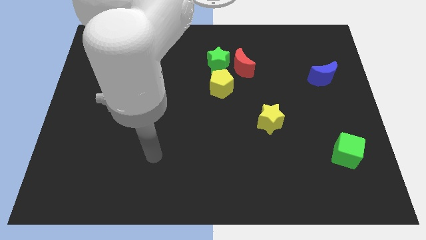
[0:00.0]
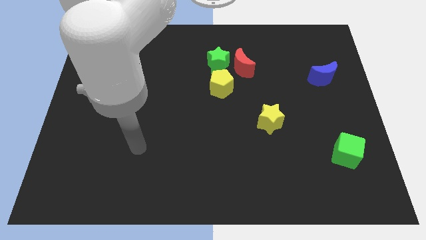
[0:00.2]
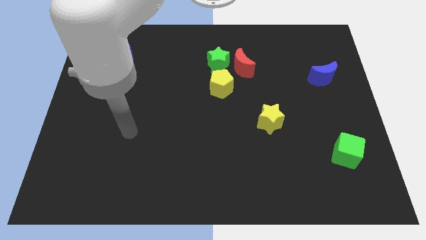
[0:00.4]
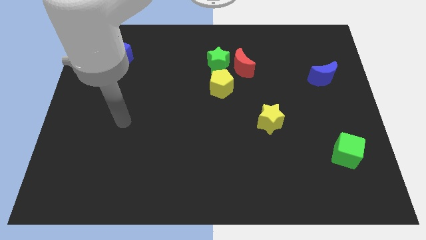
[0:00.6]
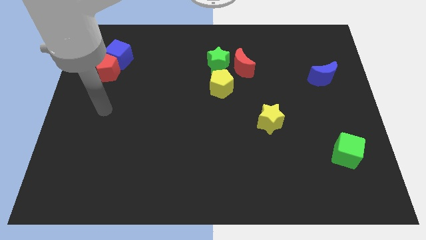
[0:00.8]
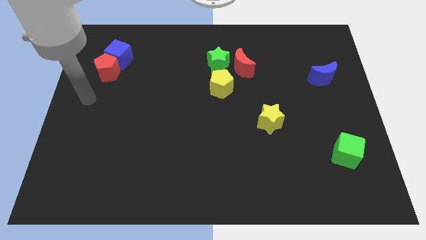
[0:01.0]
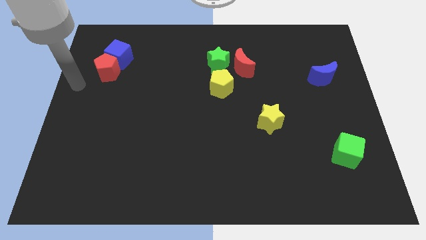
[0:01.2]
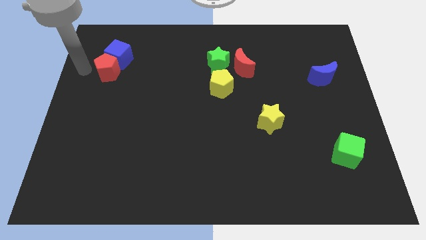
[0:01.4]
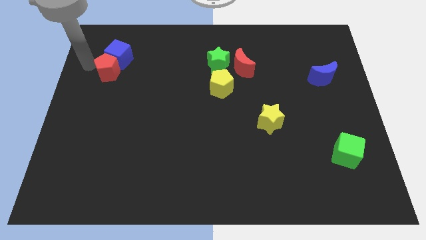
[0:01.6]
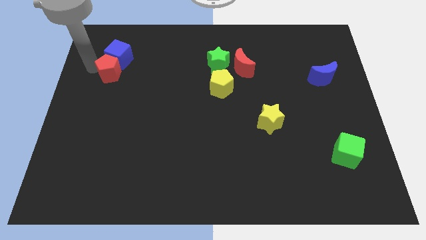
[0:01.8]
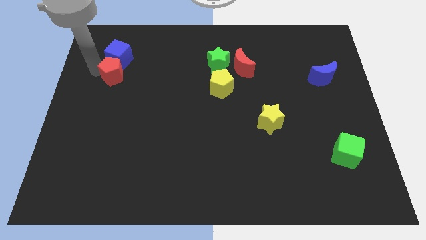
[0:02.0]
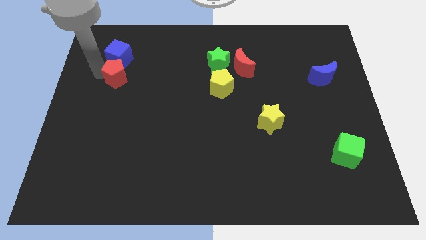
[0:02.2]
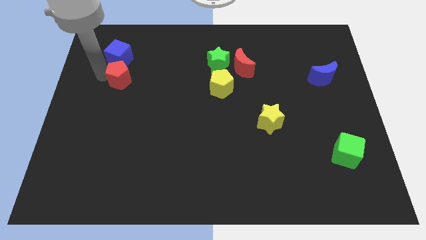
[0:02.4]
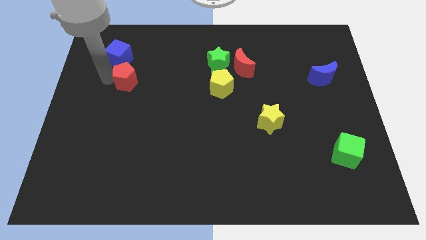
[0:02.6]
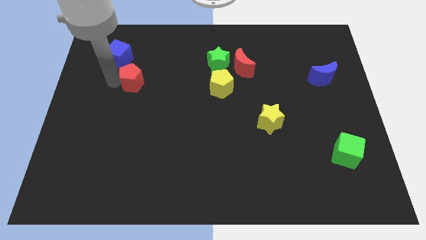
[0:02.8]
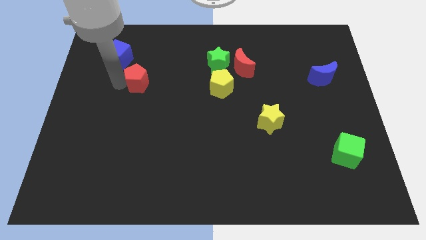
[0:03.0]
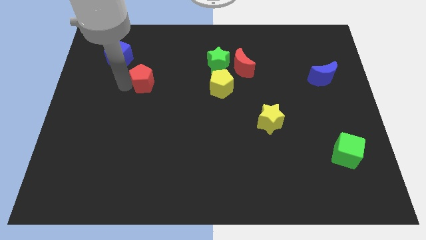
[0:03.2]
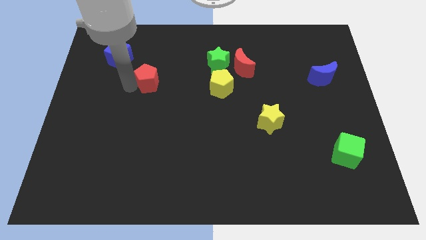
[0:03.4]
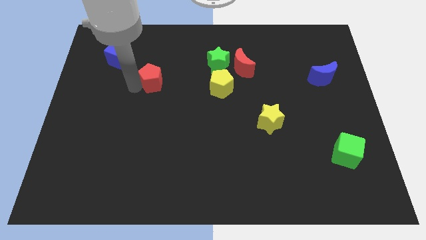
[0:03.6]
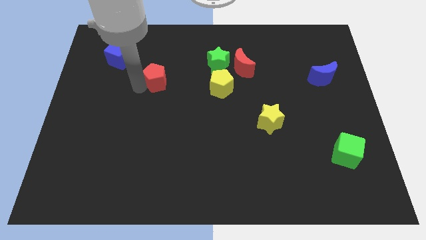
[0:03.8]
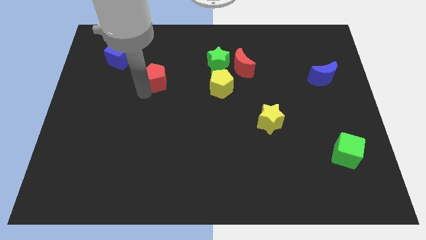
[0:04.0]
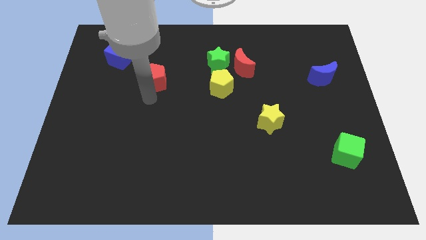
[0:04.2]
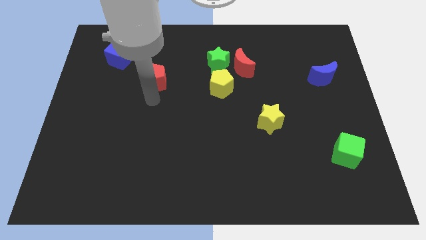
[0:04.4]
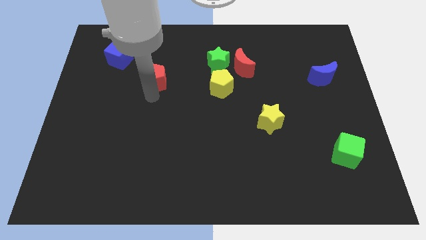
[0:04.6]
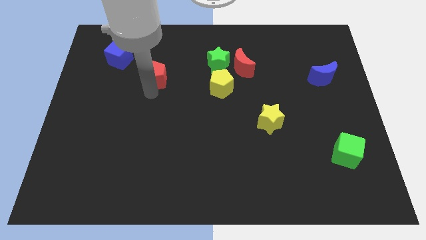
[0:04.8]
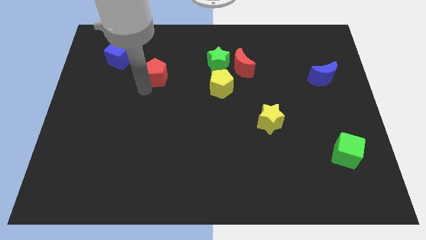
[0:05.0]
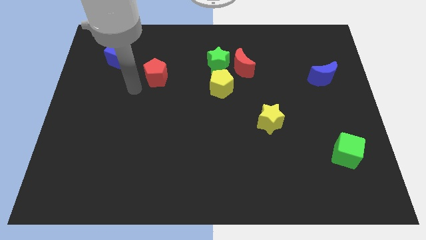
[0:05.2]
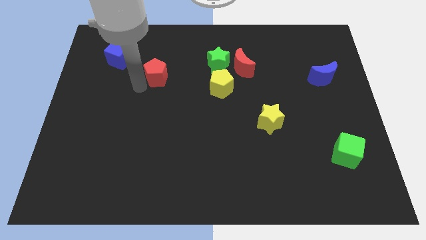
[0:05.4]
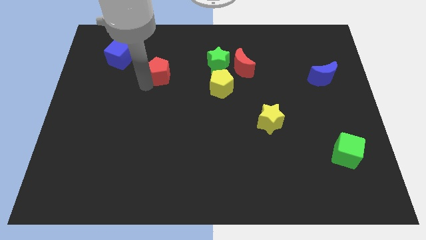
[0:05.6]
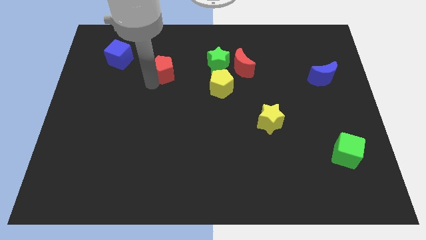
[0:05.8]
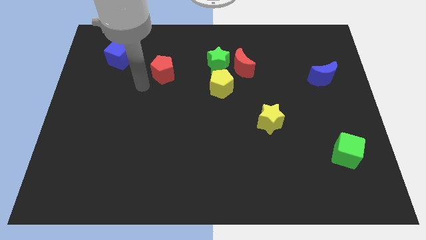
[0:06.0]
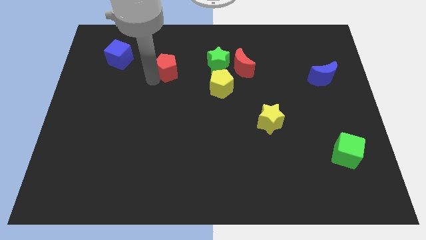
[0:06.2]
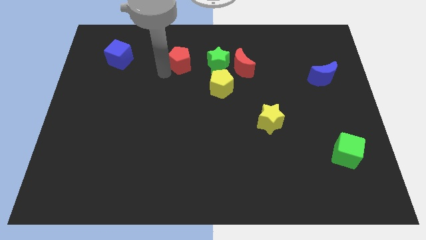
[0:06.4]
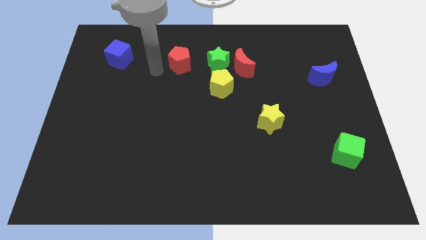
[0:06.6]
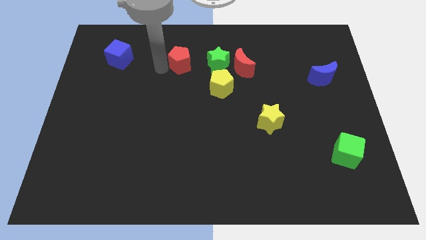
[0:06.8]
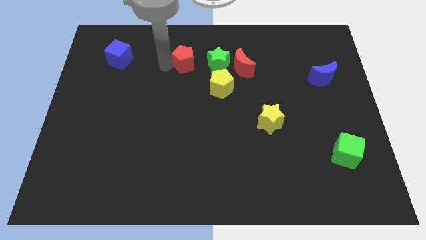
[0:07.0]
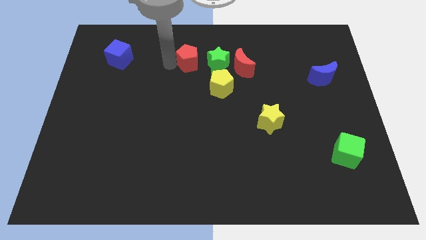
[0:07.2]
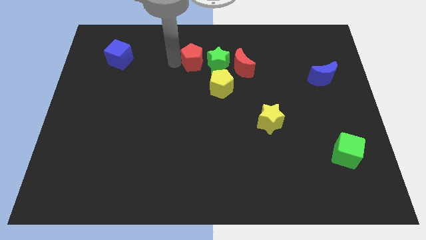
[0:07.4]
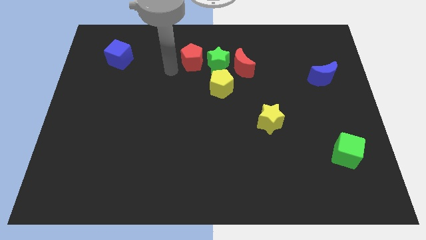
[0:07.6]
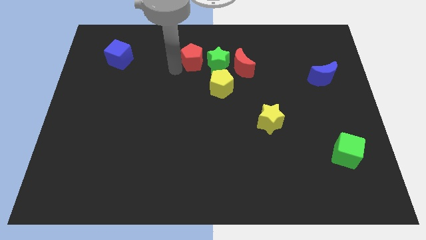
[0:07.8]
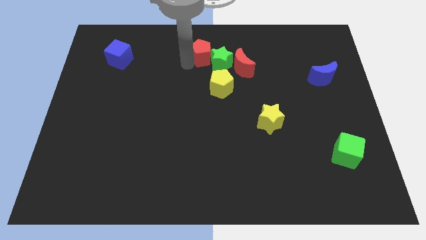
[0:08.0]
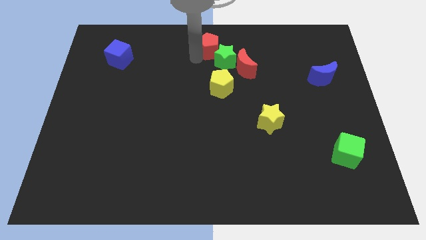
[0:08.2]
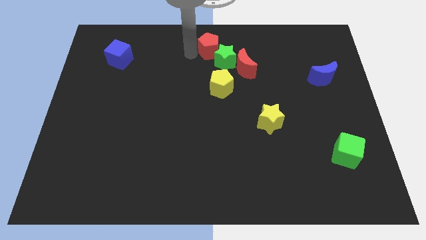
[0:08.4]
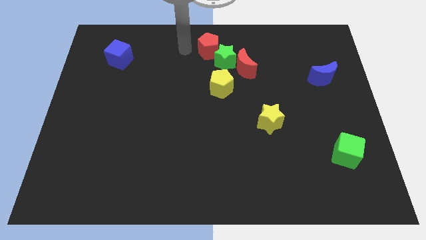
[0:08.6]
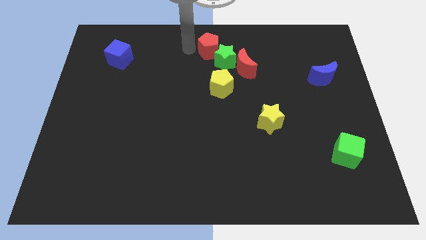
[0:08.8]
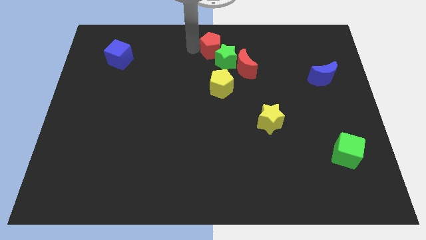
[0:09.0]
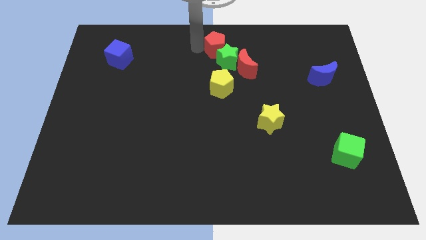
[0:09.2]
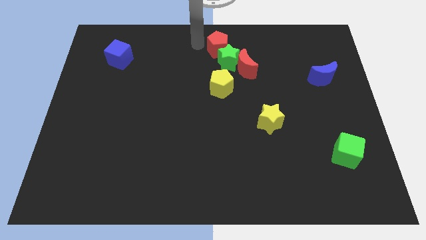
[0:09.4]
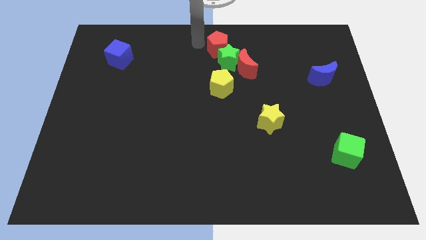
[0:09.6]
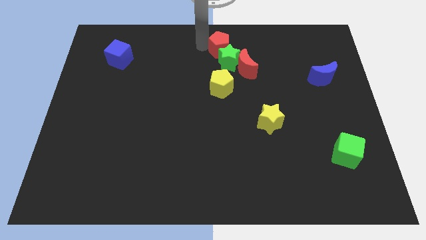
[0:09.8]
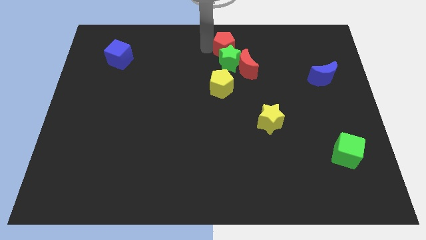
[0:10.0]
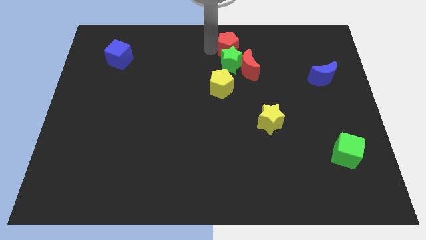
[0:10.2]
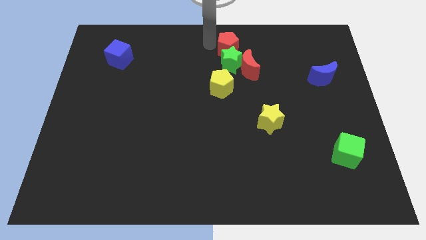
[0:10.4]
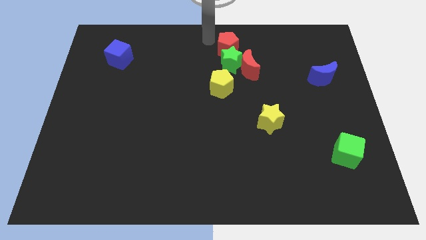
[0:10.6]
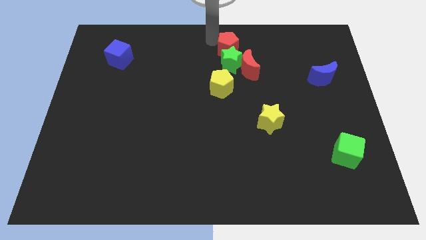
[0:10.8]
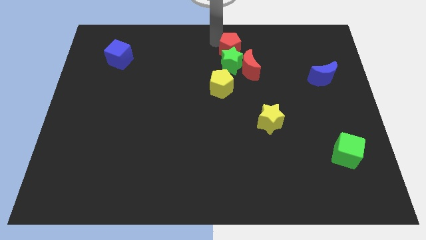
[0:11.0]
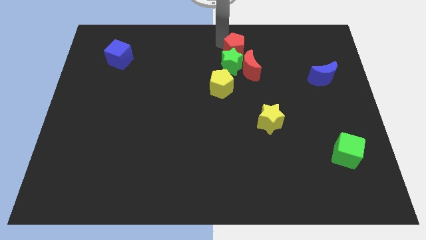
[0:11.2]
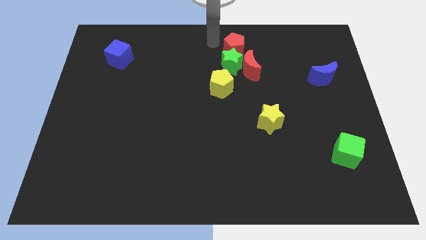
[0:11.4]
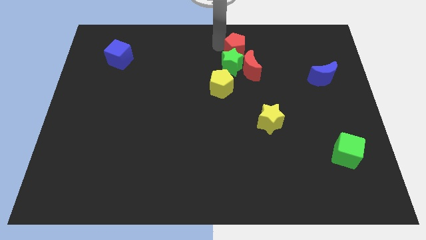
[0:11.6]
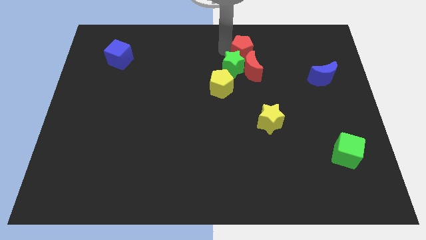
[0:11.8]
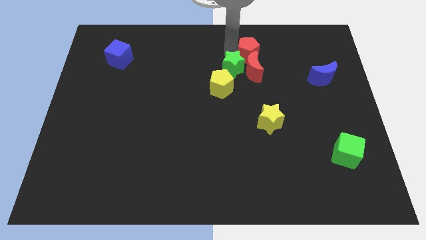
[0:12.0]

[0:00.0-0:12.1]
push the red pentagon just right of the green star

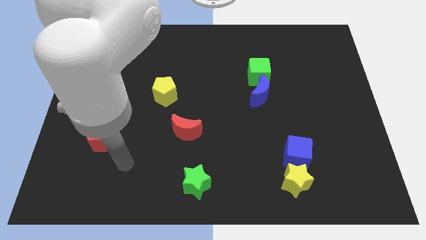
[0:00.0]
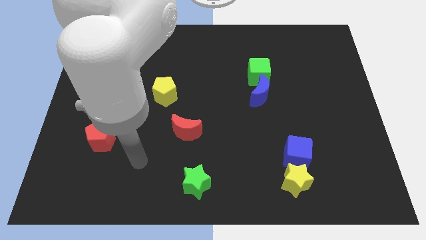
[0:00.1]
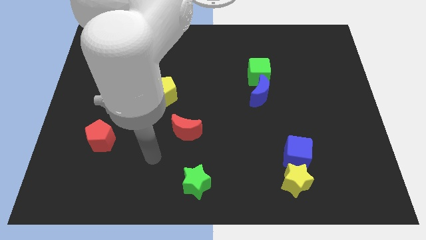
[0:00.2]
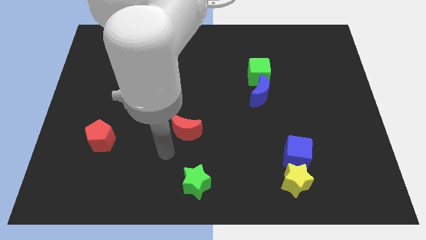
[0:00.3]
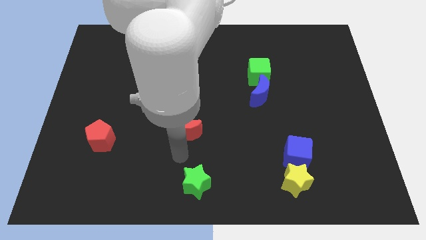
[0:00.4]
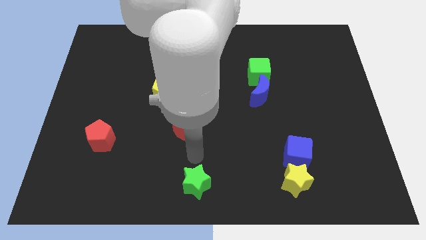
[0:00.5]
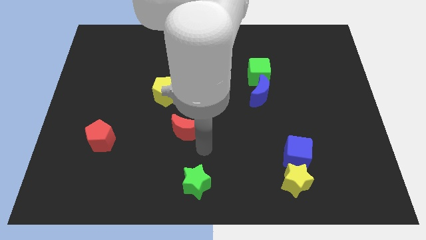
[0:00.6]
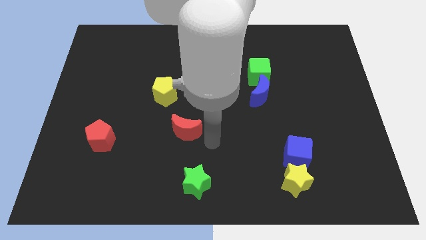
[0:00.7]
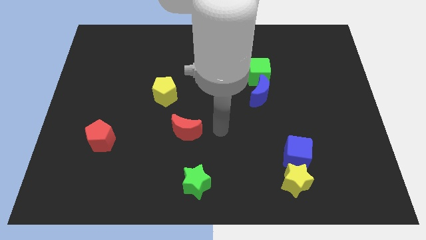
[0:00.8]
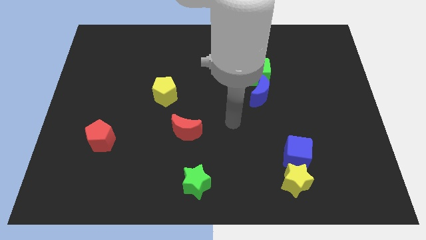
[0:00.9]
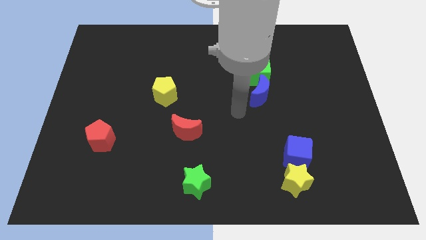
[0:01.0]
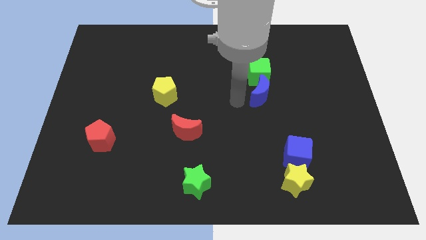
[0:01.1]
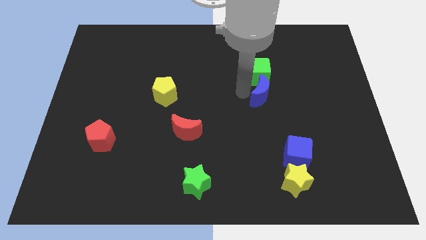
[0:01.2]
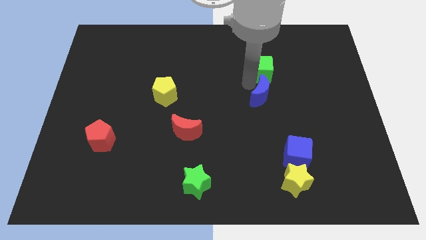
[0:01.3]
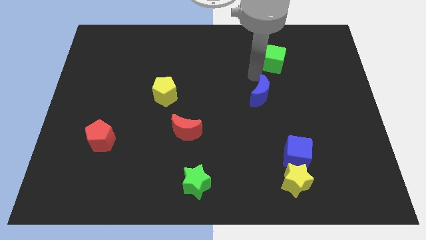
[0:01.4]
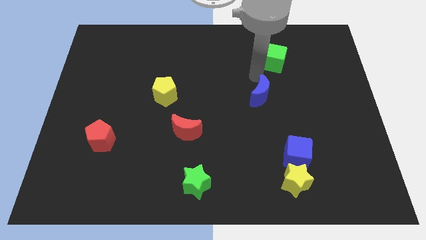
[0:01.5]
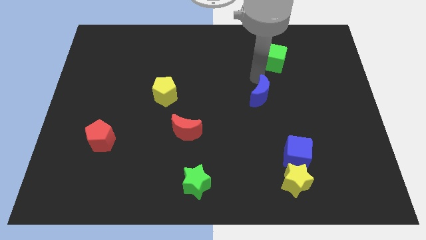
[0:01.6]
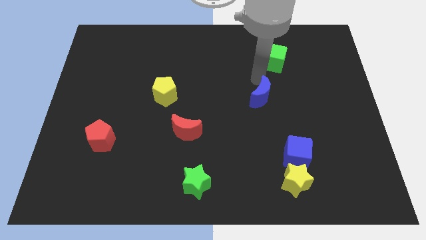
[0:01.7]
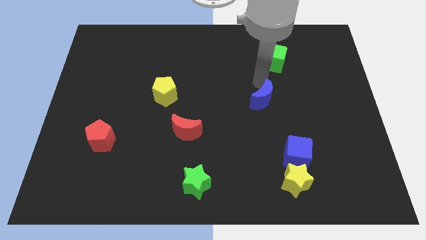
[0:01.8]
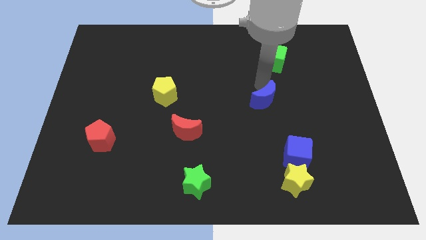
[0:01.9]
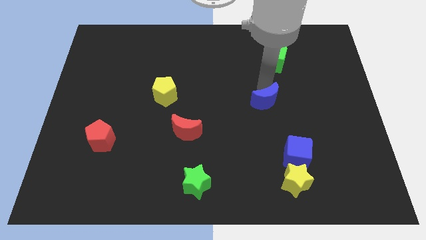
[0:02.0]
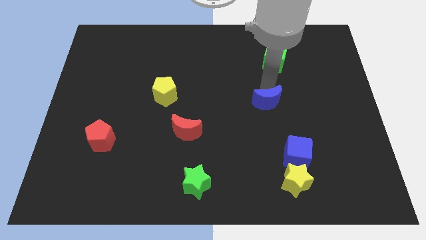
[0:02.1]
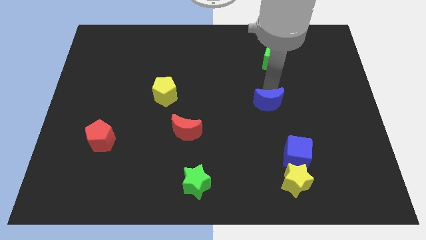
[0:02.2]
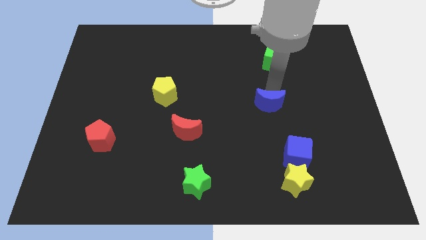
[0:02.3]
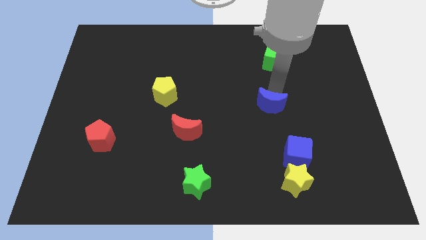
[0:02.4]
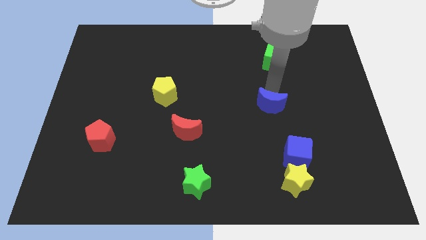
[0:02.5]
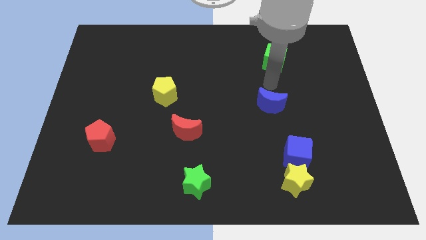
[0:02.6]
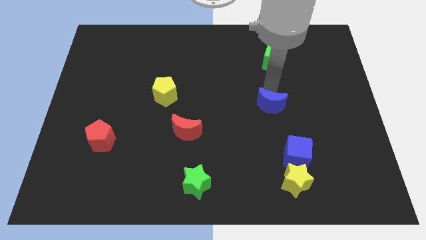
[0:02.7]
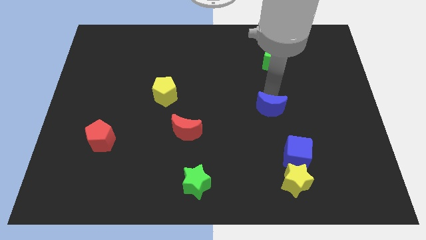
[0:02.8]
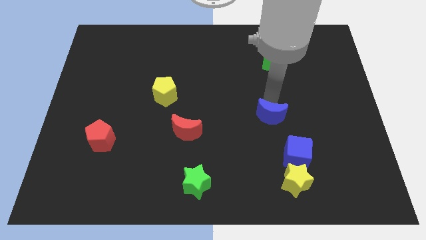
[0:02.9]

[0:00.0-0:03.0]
push the blue moon diagonally up and to the left of the blue cube
